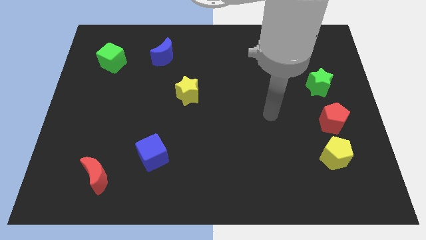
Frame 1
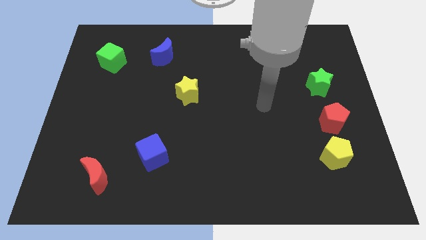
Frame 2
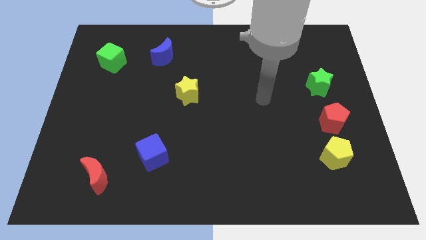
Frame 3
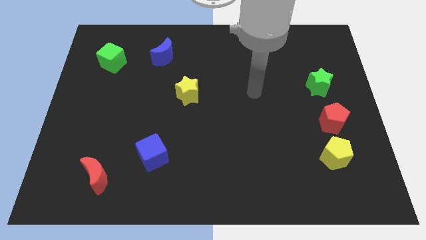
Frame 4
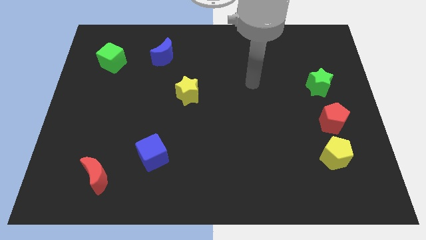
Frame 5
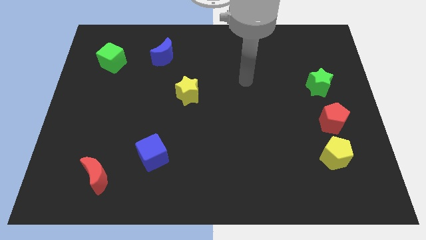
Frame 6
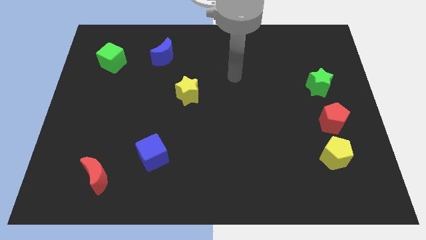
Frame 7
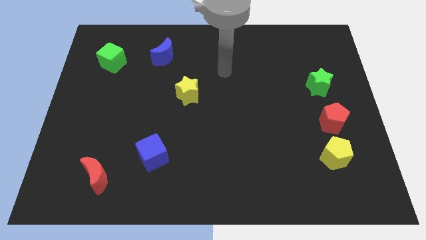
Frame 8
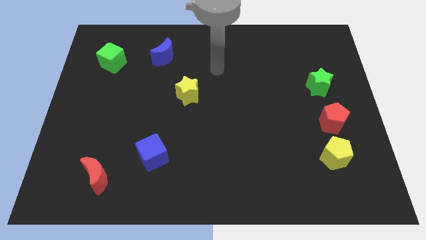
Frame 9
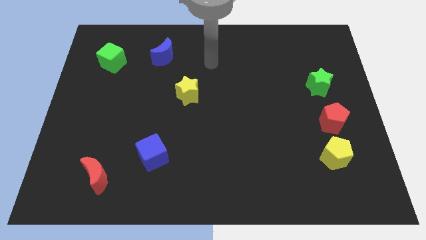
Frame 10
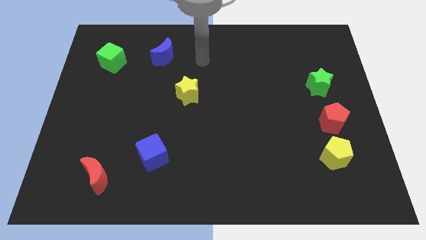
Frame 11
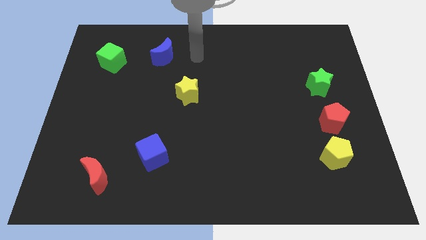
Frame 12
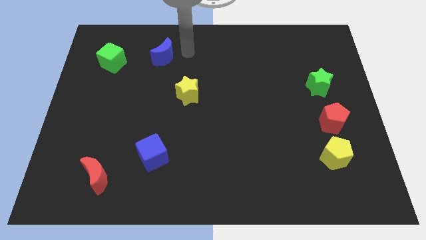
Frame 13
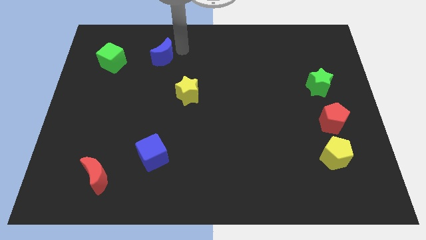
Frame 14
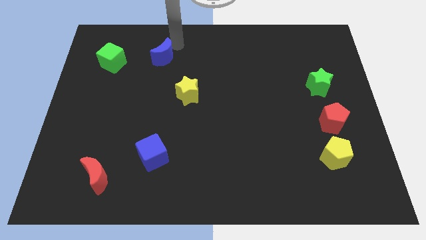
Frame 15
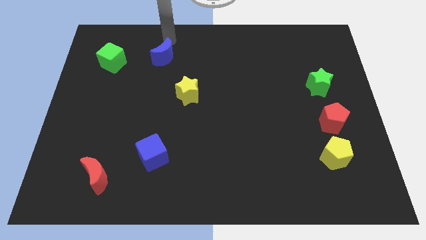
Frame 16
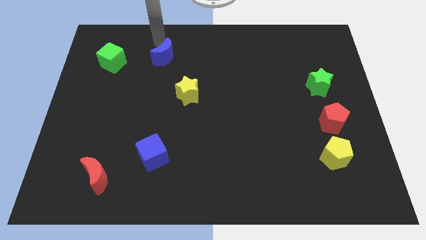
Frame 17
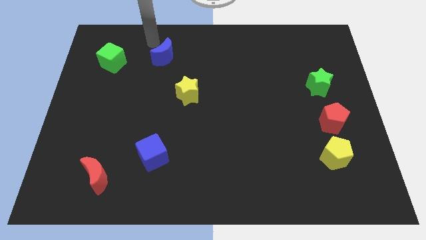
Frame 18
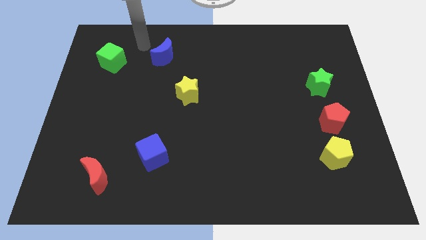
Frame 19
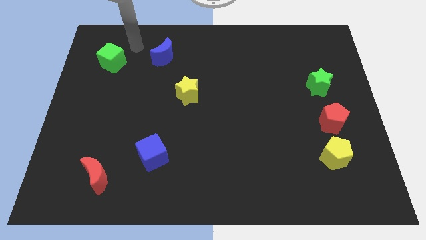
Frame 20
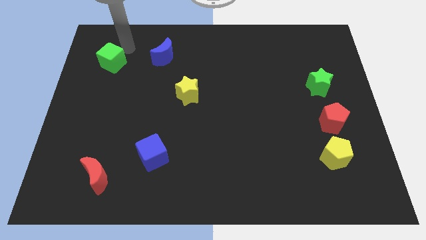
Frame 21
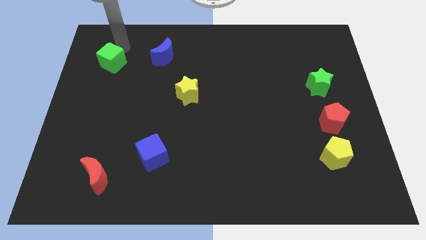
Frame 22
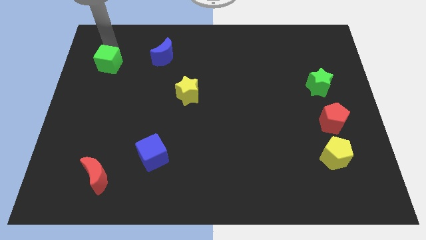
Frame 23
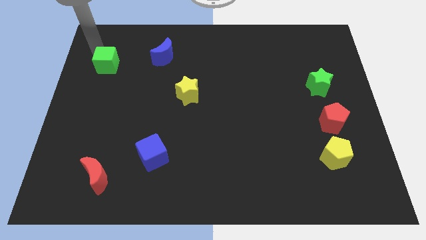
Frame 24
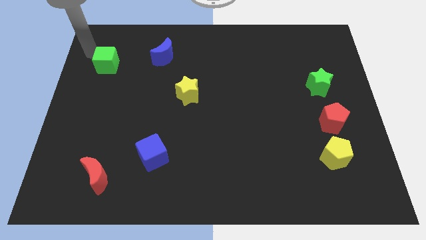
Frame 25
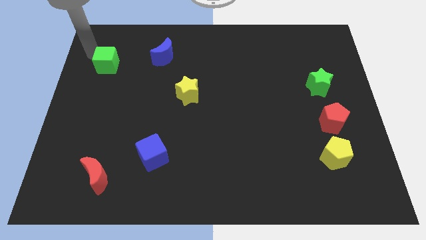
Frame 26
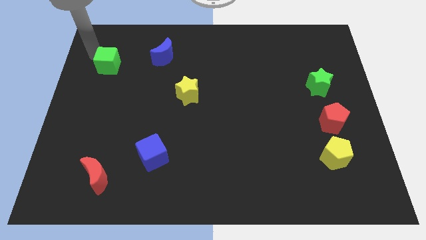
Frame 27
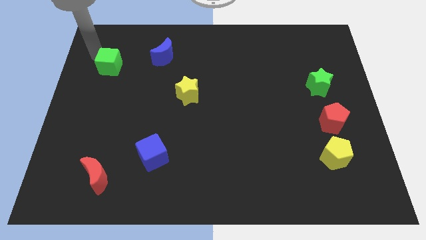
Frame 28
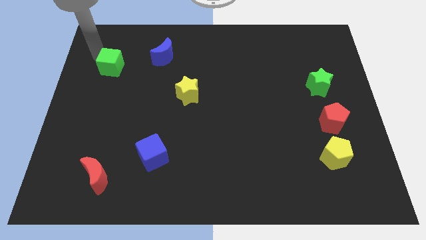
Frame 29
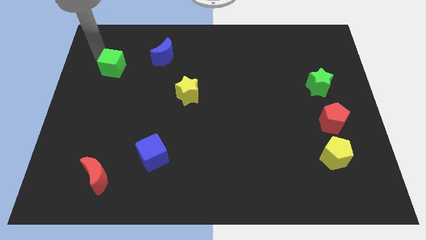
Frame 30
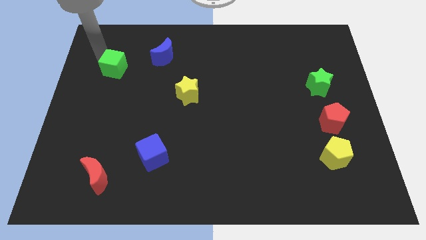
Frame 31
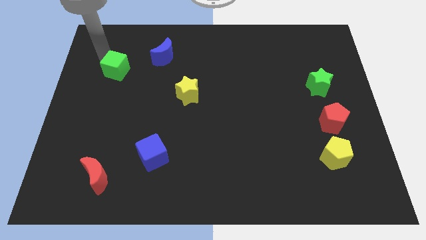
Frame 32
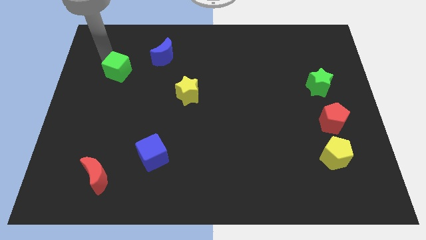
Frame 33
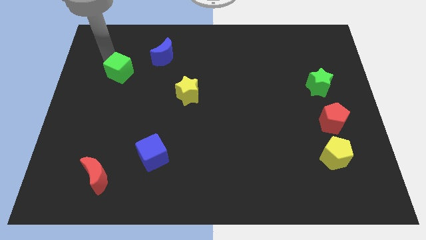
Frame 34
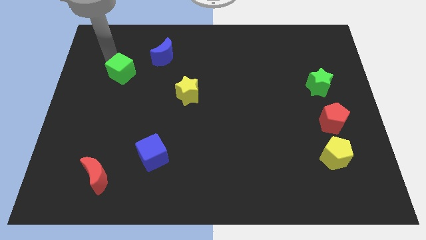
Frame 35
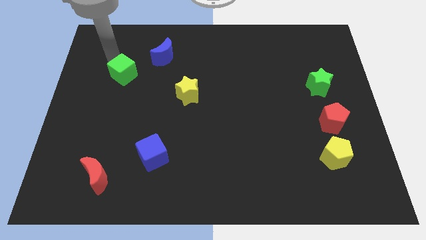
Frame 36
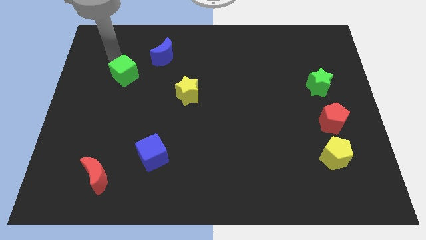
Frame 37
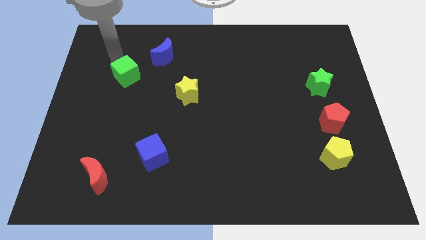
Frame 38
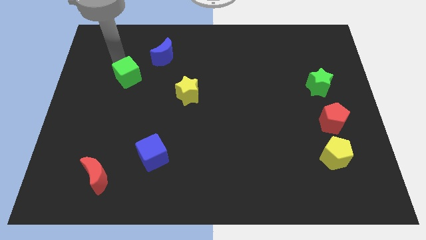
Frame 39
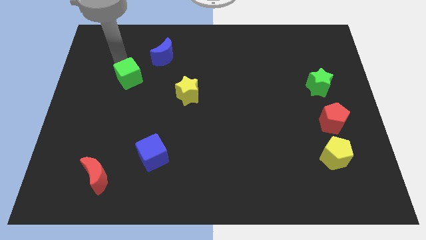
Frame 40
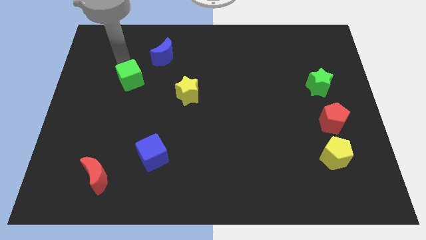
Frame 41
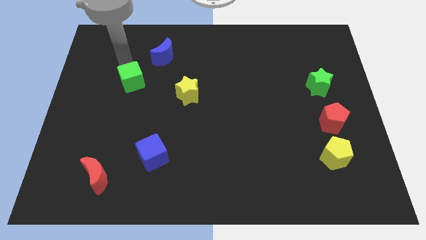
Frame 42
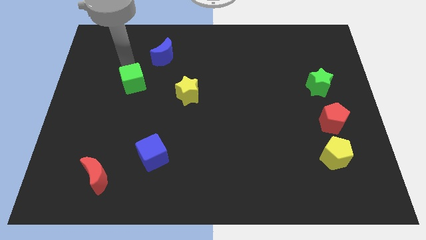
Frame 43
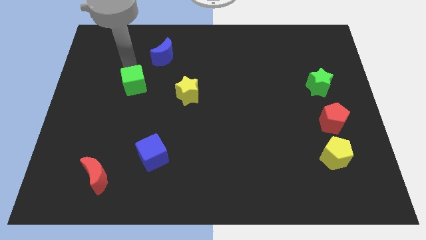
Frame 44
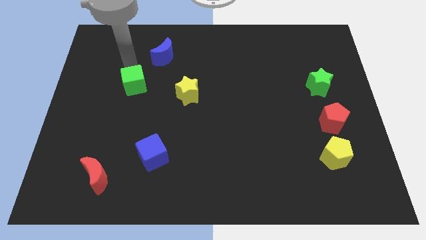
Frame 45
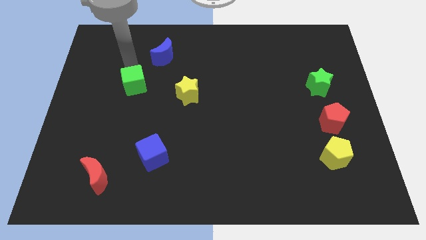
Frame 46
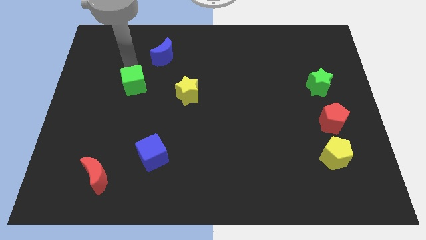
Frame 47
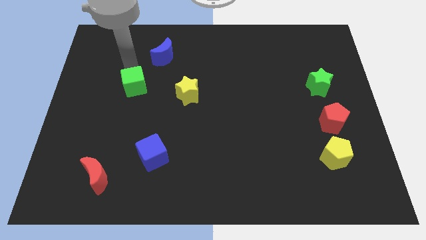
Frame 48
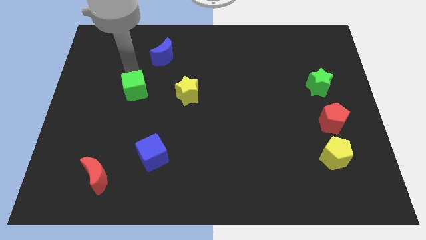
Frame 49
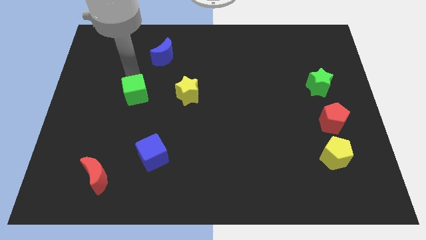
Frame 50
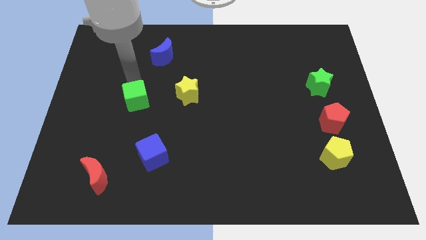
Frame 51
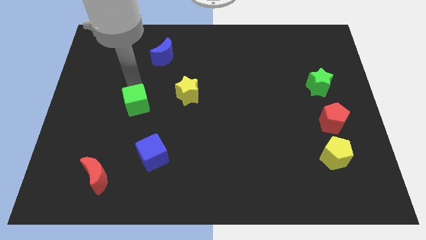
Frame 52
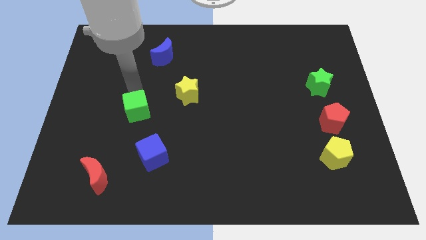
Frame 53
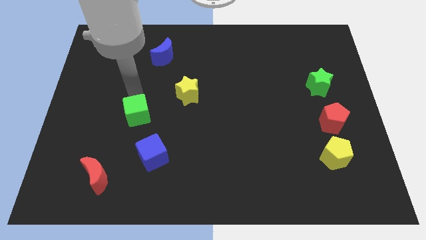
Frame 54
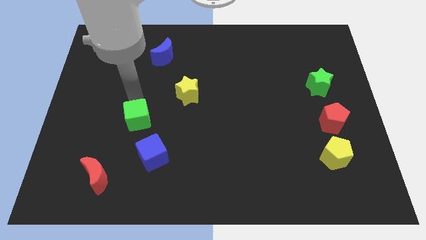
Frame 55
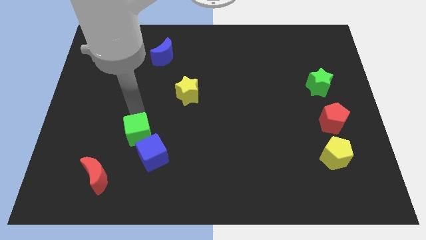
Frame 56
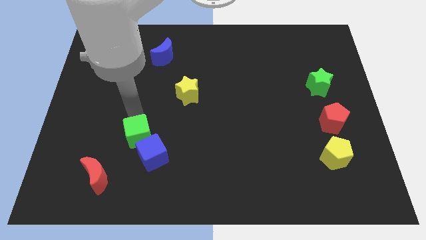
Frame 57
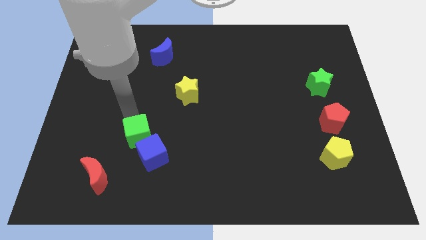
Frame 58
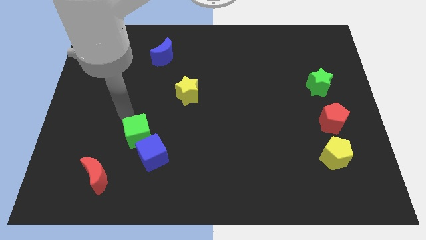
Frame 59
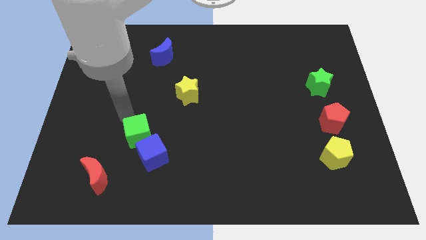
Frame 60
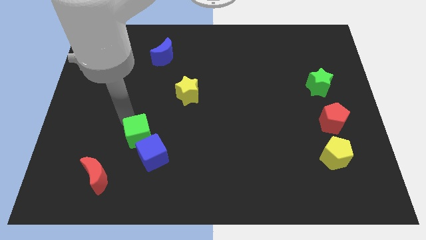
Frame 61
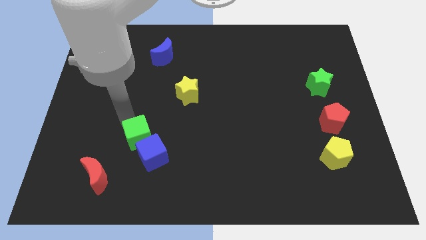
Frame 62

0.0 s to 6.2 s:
push the green cube close to the blue cube

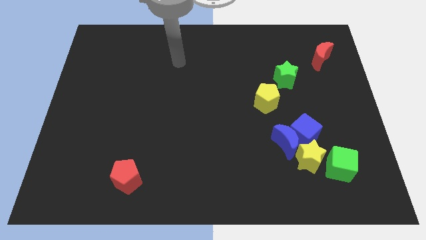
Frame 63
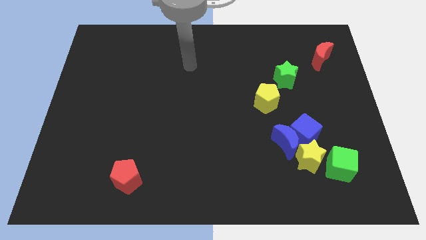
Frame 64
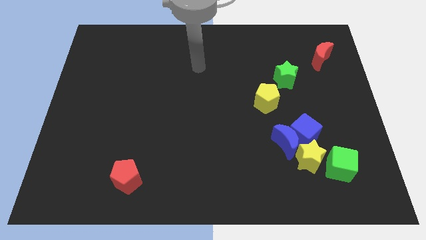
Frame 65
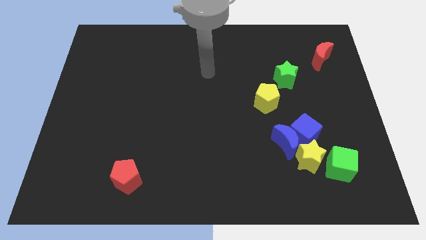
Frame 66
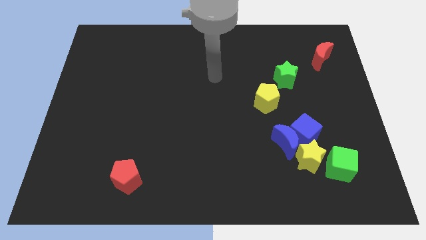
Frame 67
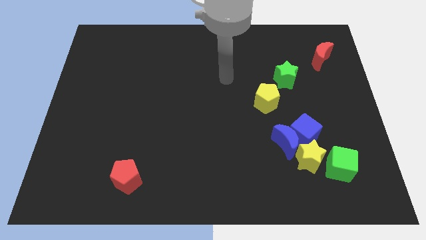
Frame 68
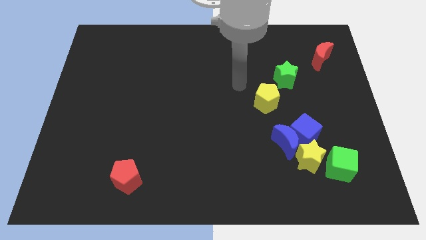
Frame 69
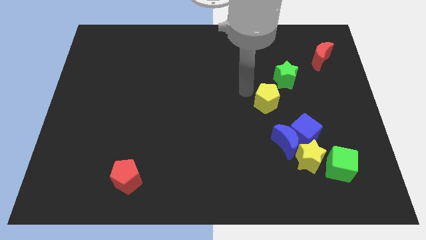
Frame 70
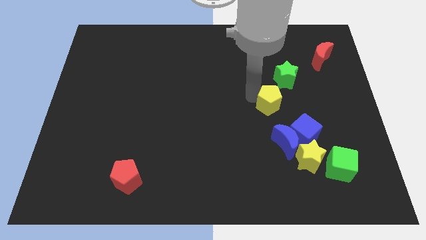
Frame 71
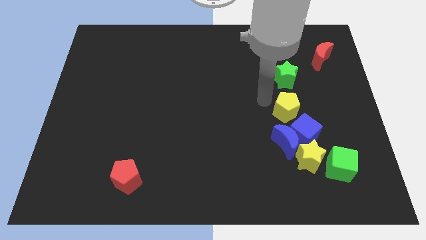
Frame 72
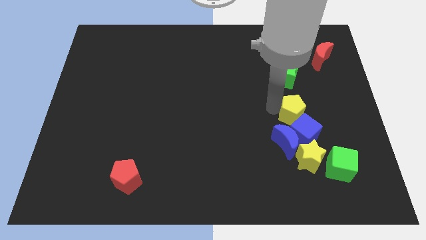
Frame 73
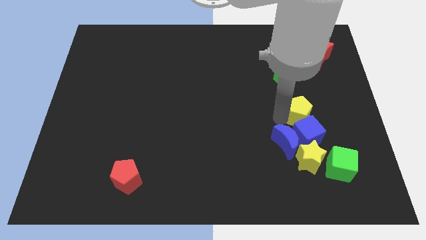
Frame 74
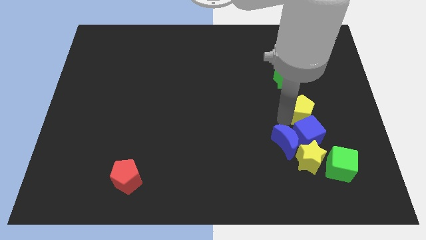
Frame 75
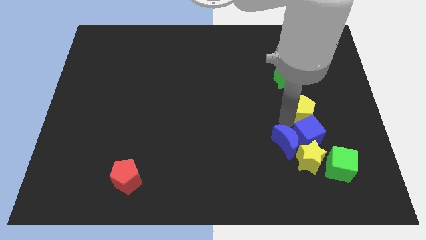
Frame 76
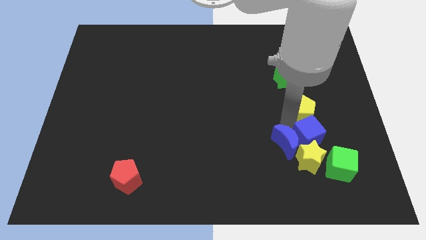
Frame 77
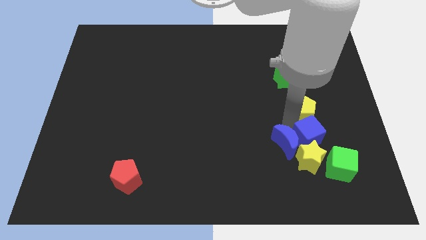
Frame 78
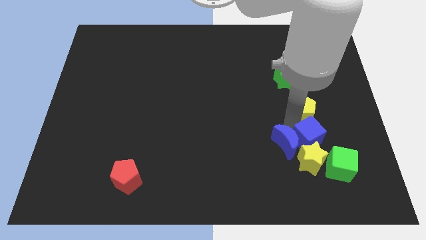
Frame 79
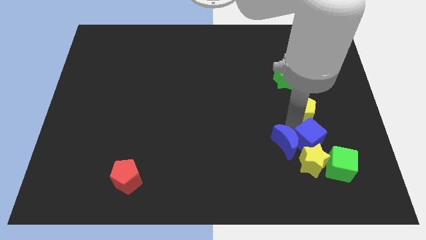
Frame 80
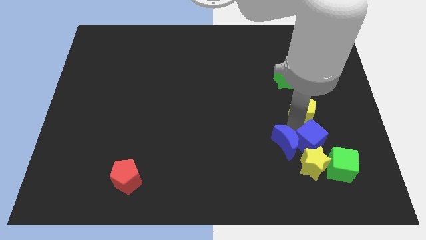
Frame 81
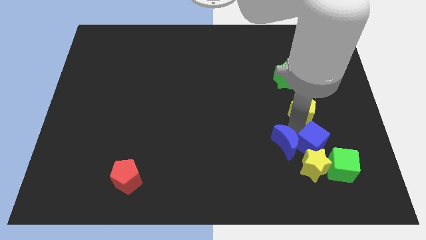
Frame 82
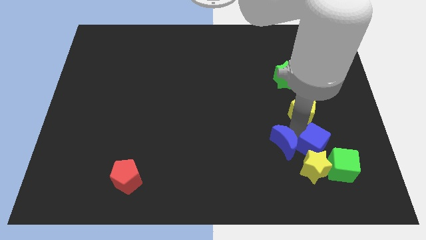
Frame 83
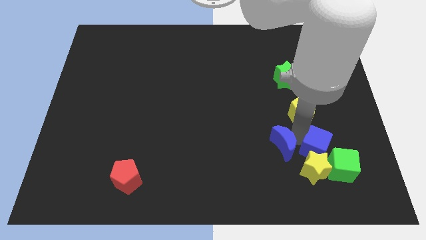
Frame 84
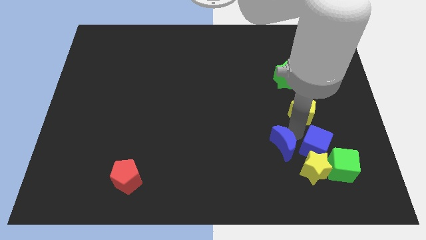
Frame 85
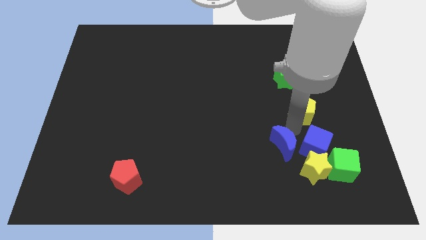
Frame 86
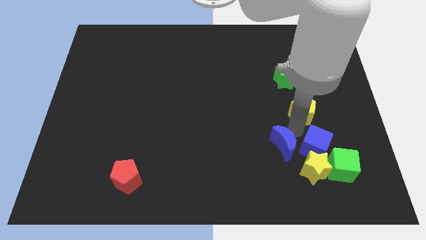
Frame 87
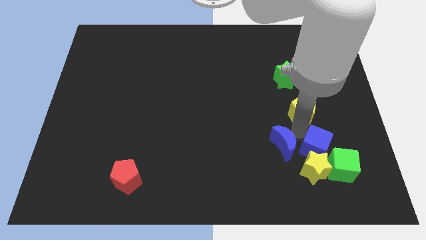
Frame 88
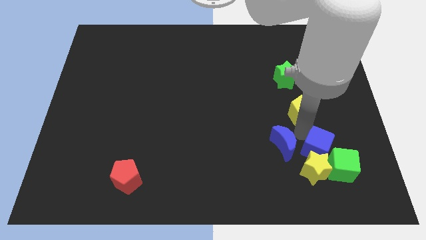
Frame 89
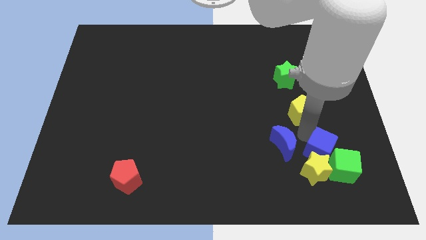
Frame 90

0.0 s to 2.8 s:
slide the blue cube to the green cube
